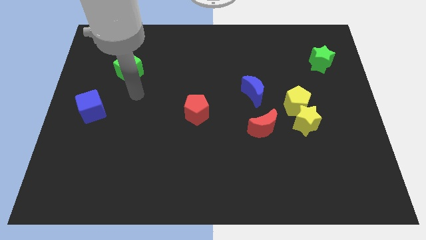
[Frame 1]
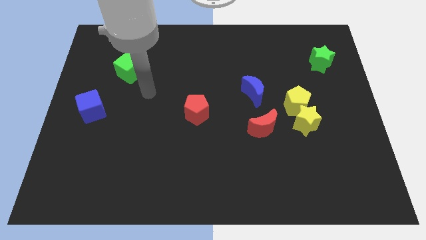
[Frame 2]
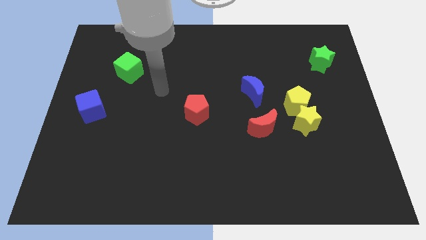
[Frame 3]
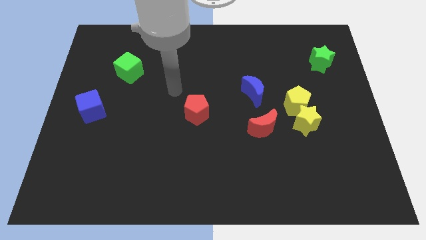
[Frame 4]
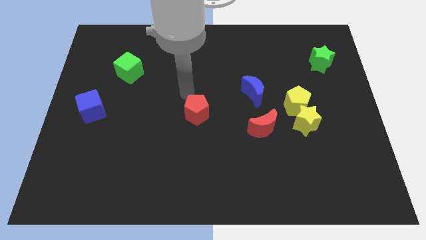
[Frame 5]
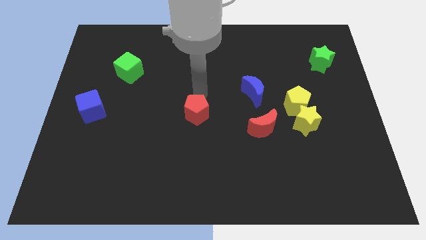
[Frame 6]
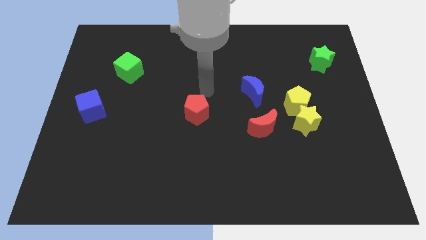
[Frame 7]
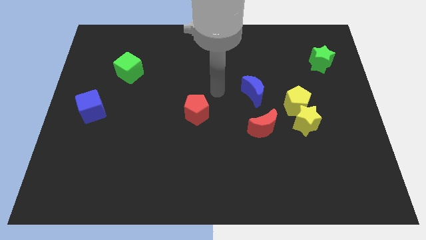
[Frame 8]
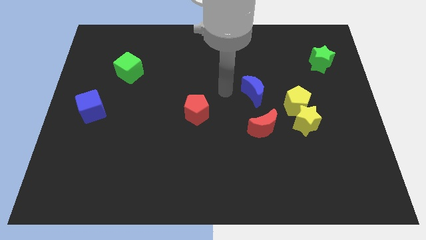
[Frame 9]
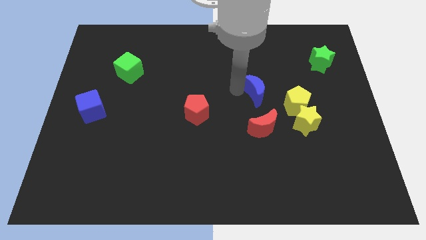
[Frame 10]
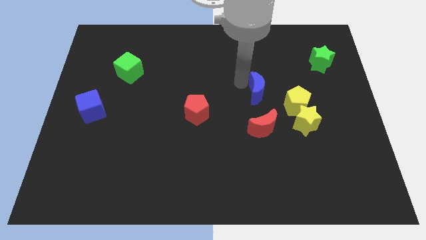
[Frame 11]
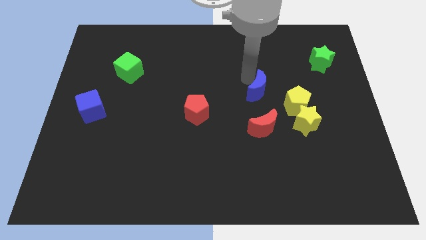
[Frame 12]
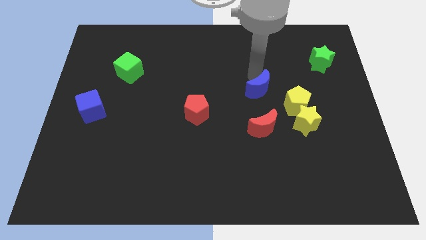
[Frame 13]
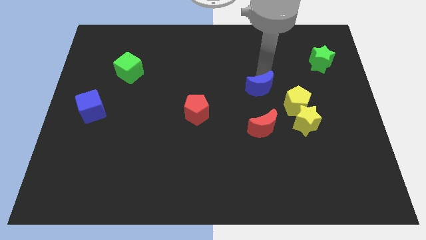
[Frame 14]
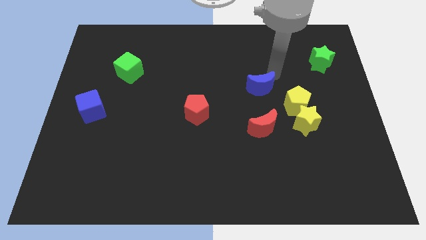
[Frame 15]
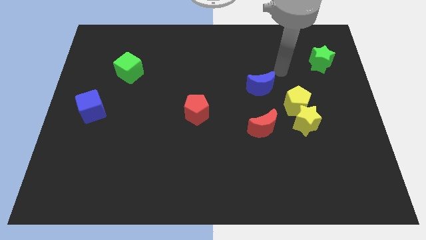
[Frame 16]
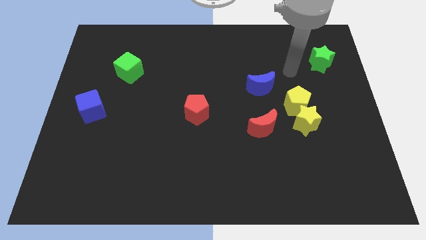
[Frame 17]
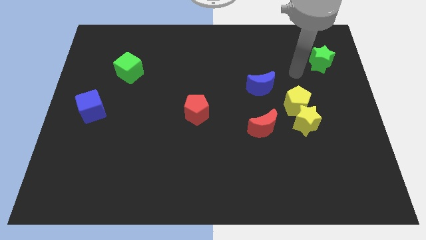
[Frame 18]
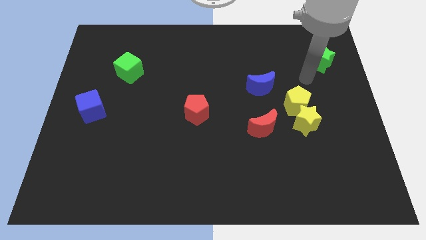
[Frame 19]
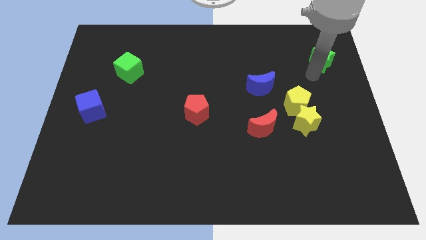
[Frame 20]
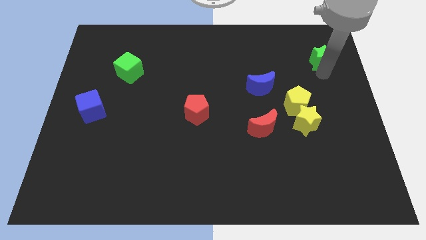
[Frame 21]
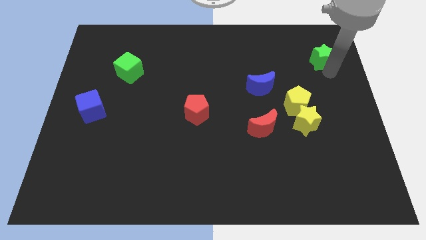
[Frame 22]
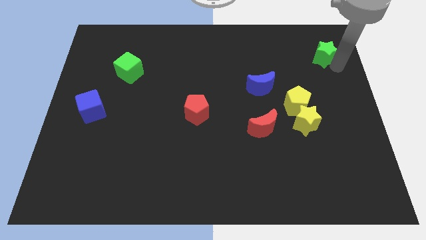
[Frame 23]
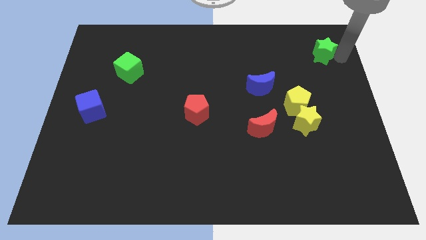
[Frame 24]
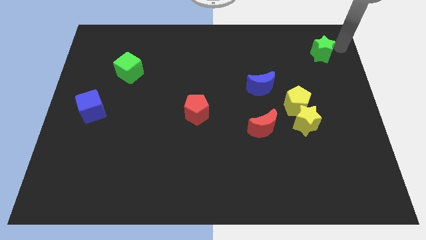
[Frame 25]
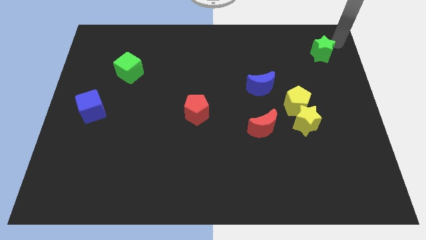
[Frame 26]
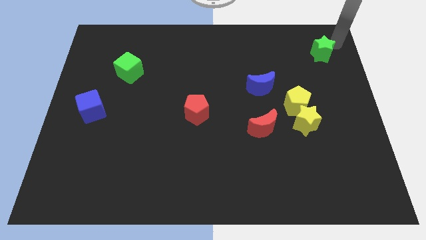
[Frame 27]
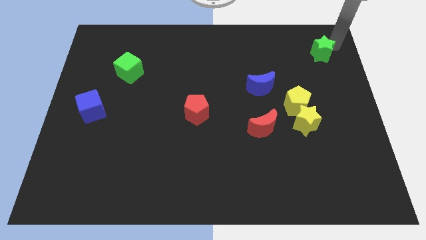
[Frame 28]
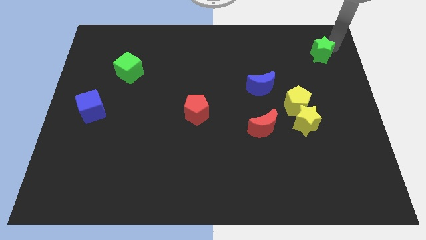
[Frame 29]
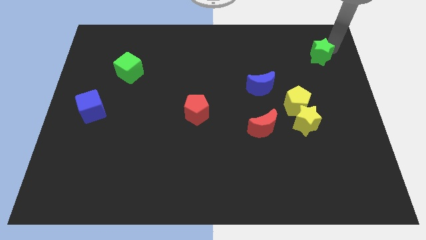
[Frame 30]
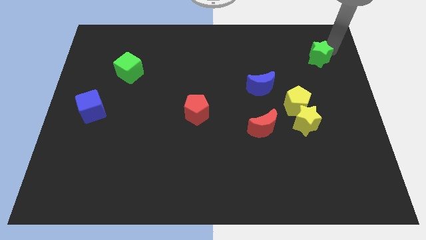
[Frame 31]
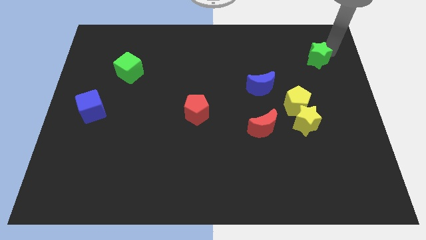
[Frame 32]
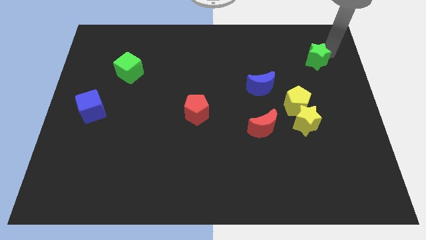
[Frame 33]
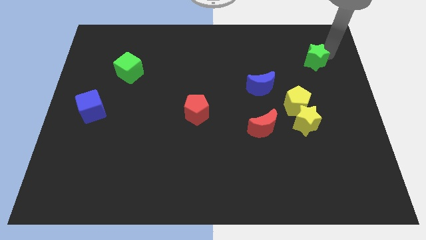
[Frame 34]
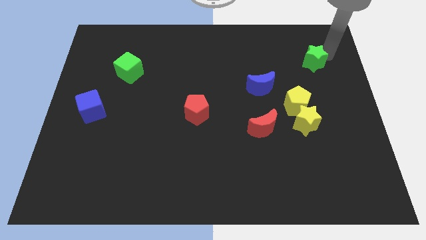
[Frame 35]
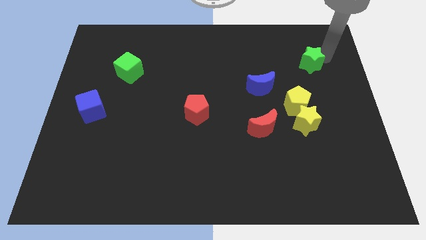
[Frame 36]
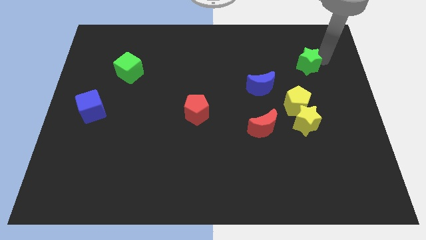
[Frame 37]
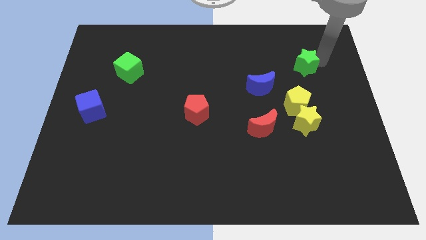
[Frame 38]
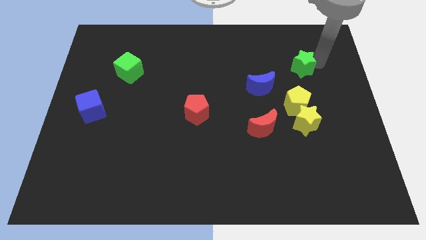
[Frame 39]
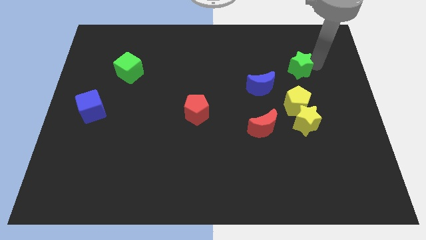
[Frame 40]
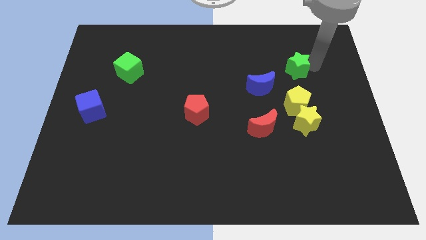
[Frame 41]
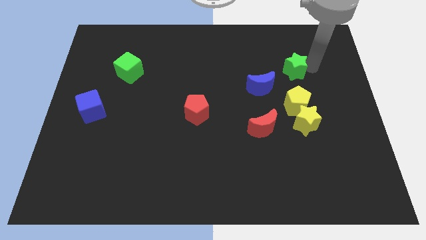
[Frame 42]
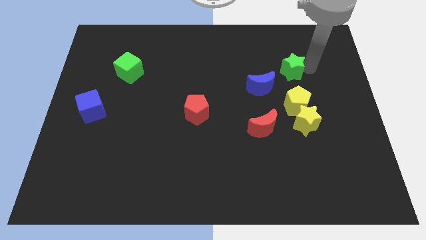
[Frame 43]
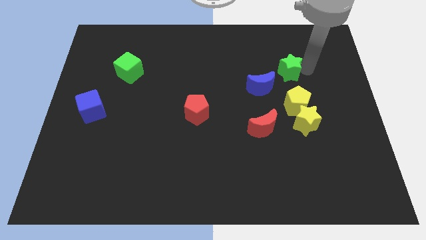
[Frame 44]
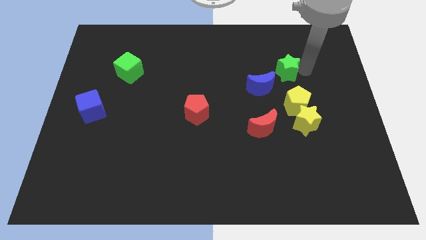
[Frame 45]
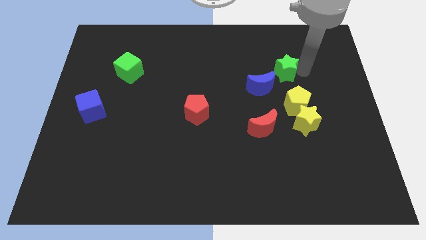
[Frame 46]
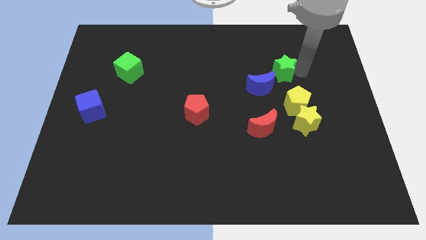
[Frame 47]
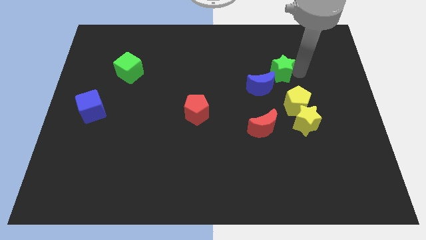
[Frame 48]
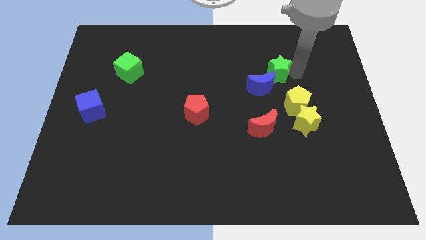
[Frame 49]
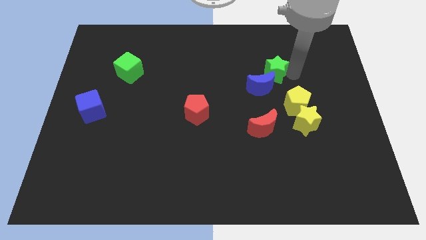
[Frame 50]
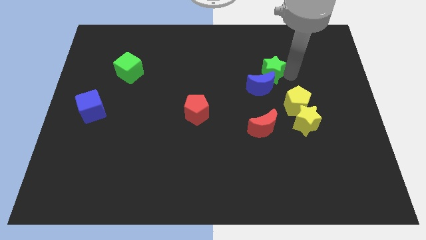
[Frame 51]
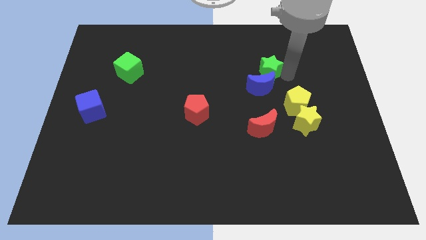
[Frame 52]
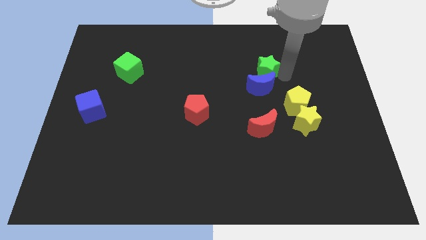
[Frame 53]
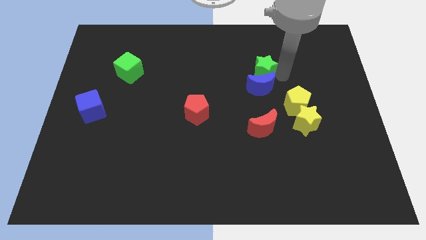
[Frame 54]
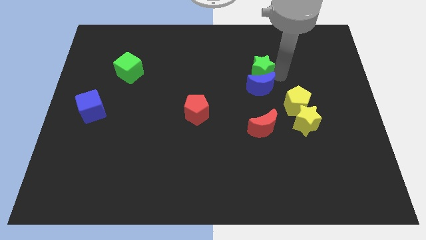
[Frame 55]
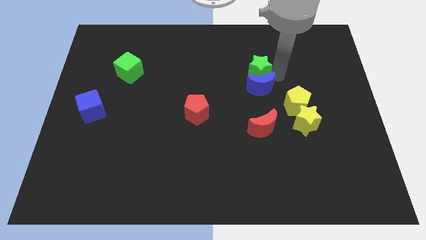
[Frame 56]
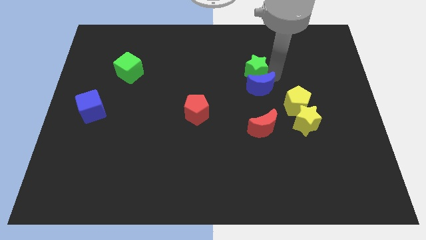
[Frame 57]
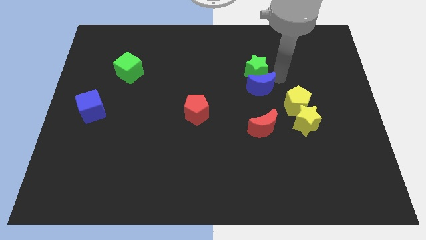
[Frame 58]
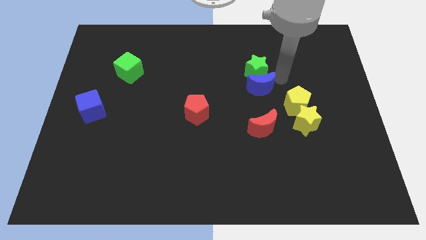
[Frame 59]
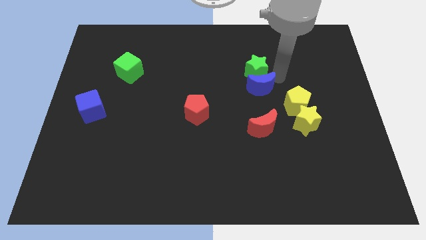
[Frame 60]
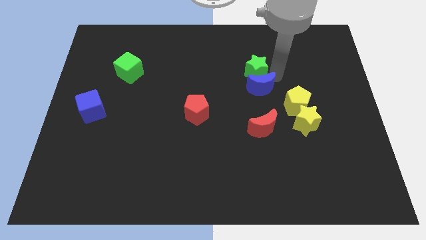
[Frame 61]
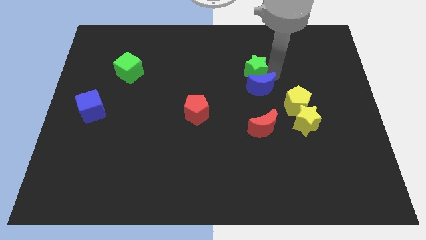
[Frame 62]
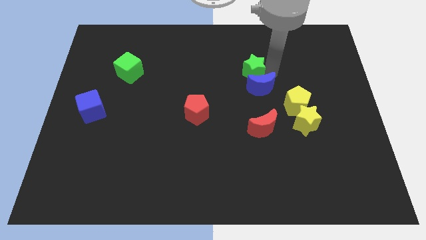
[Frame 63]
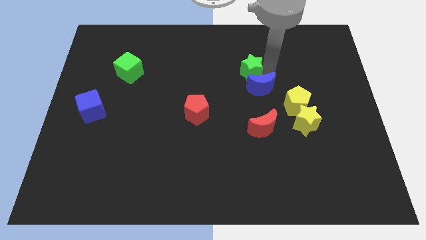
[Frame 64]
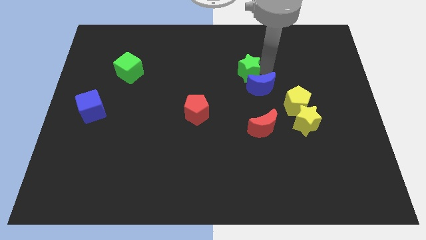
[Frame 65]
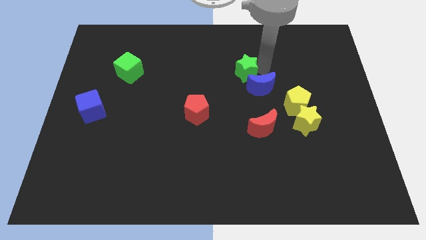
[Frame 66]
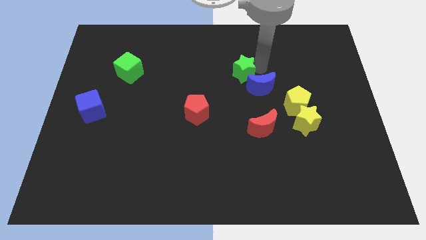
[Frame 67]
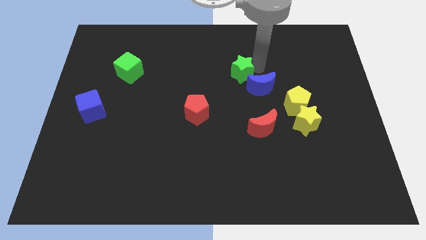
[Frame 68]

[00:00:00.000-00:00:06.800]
move the green star to the left

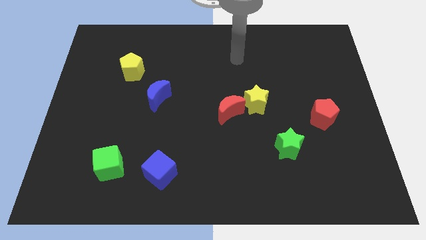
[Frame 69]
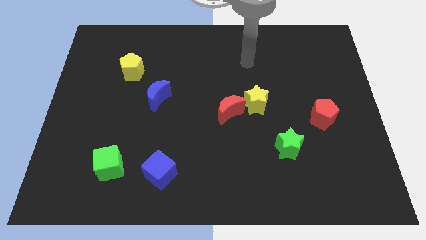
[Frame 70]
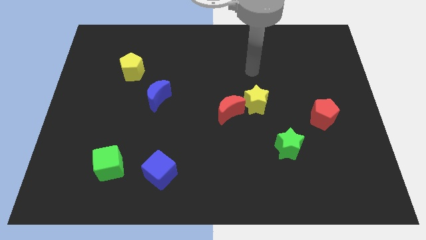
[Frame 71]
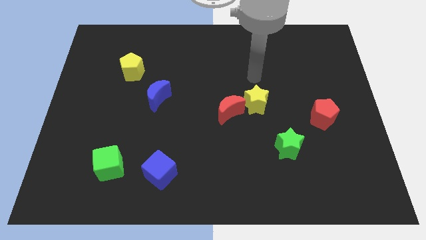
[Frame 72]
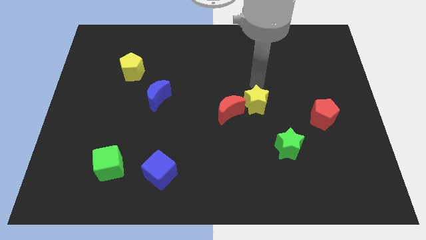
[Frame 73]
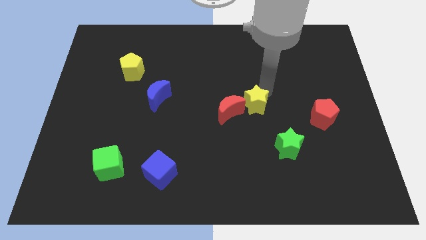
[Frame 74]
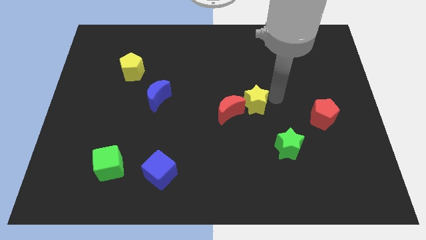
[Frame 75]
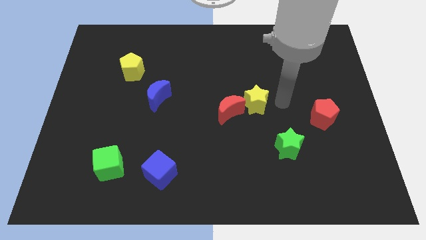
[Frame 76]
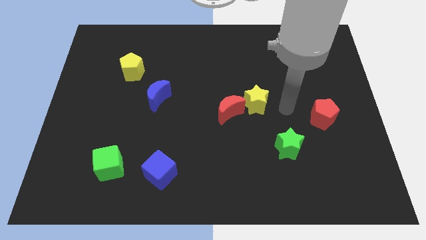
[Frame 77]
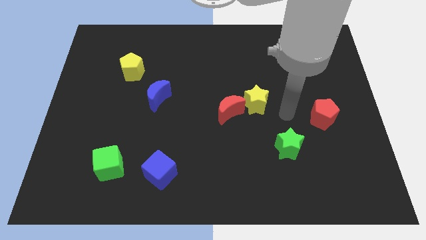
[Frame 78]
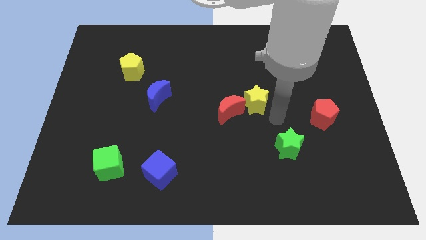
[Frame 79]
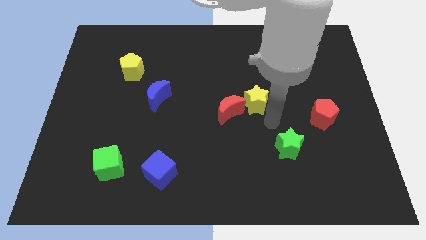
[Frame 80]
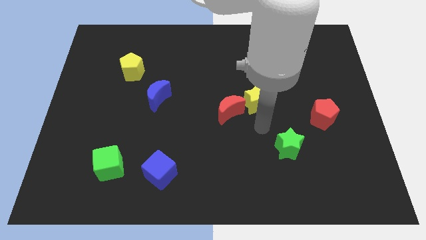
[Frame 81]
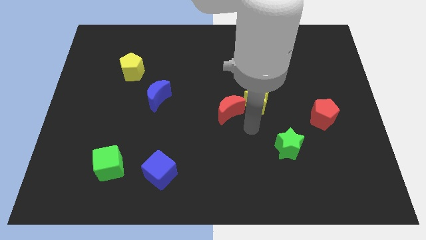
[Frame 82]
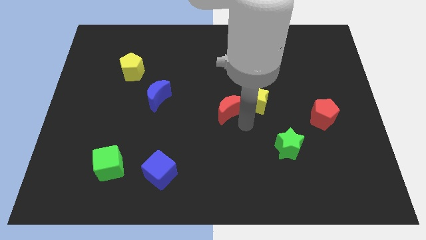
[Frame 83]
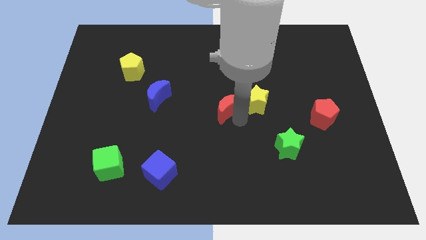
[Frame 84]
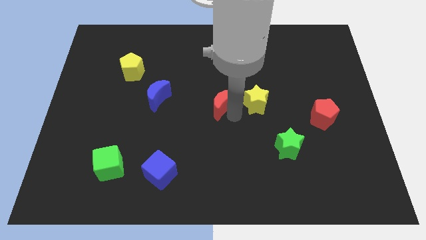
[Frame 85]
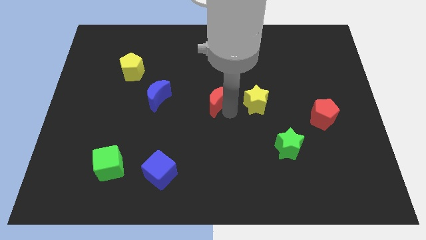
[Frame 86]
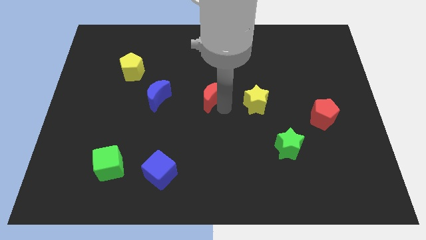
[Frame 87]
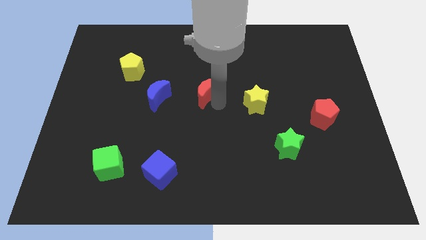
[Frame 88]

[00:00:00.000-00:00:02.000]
slightly push the red moon upwards and left
